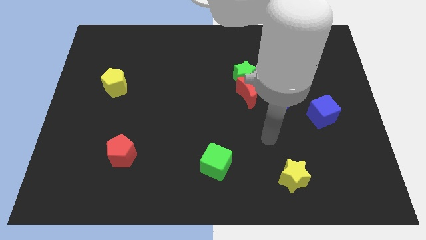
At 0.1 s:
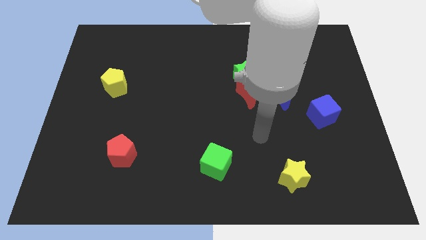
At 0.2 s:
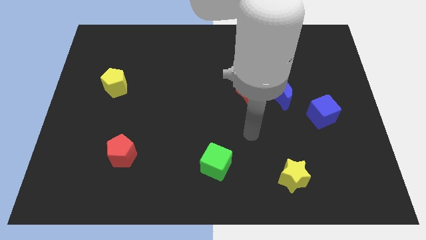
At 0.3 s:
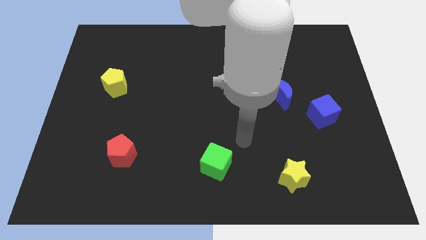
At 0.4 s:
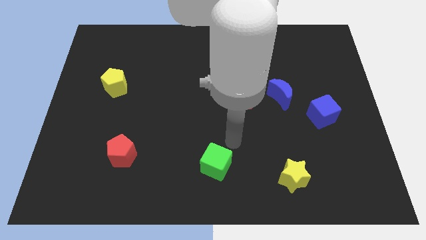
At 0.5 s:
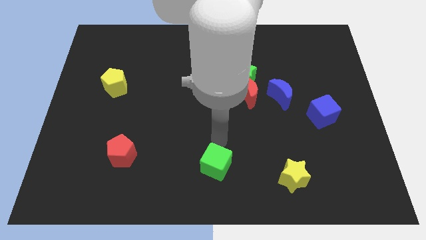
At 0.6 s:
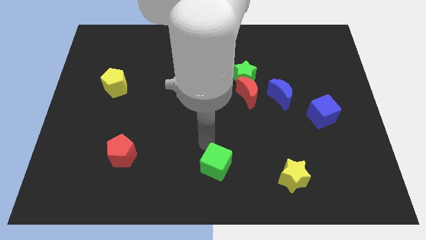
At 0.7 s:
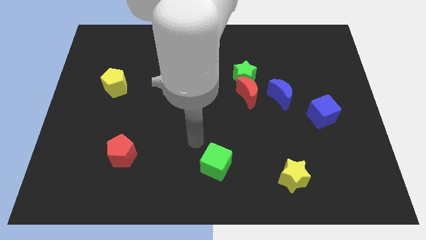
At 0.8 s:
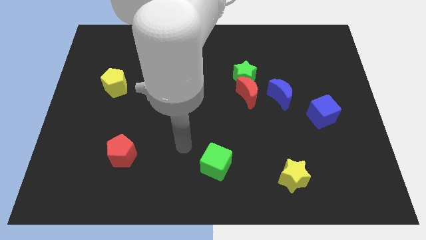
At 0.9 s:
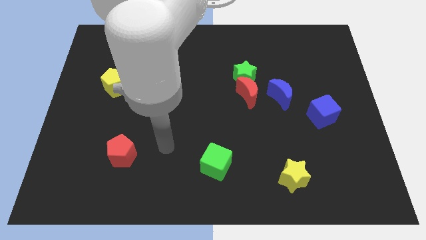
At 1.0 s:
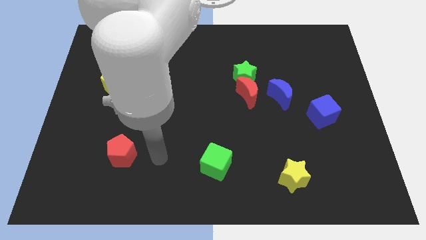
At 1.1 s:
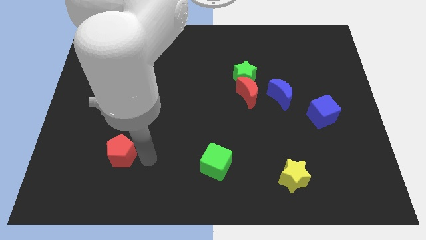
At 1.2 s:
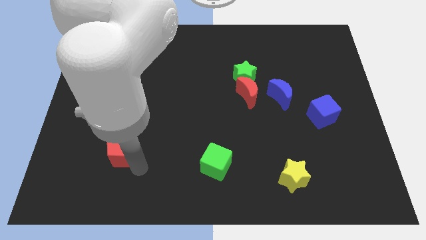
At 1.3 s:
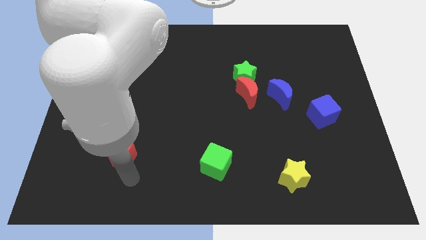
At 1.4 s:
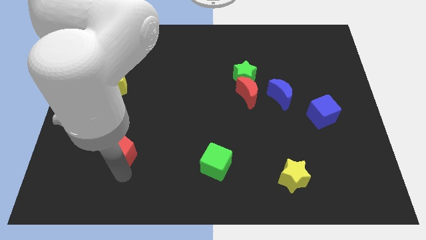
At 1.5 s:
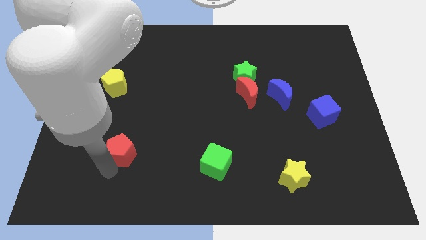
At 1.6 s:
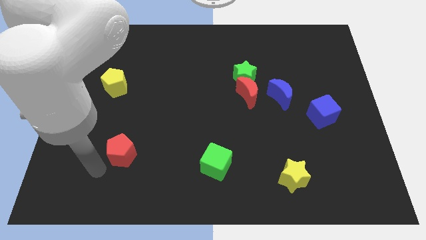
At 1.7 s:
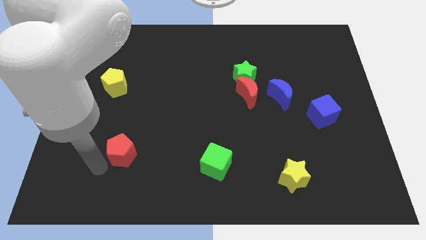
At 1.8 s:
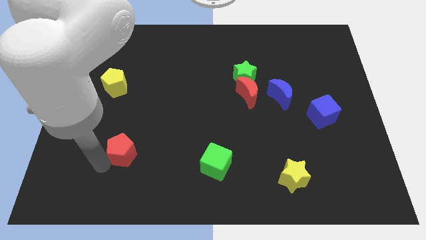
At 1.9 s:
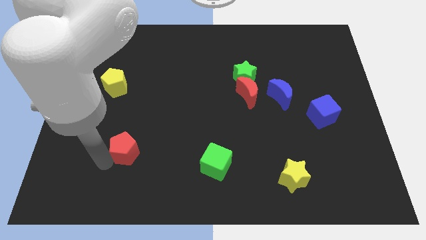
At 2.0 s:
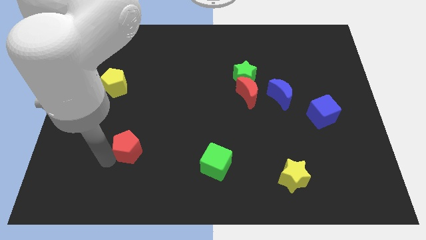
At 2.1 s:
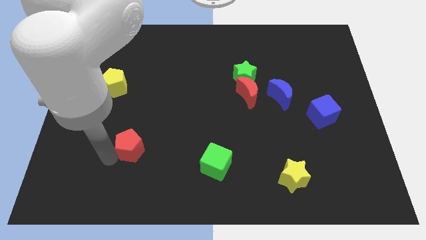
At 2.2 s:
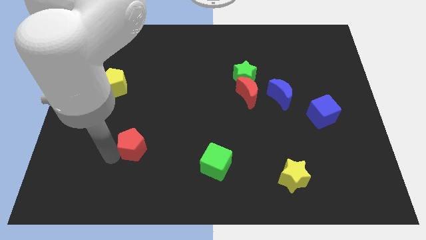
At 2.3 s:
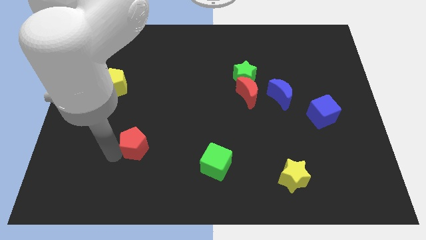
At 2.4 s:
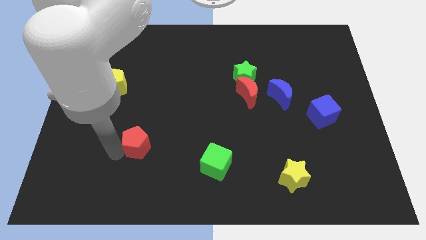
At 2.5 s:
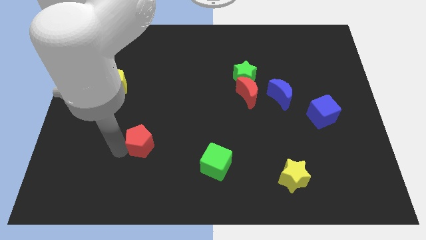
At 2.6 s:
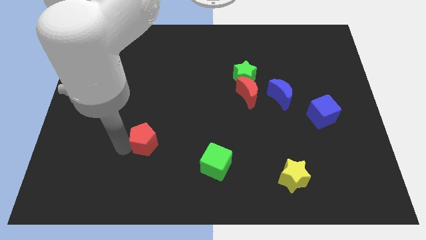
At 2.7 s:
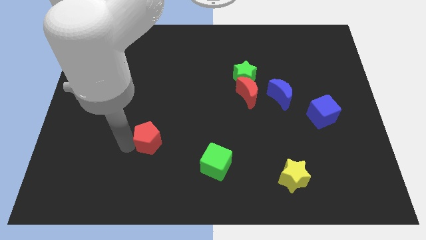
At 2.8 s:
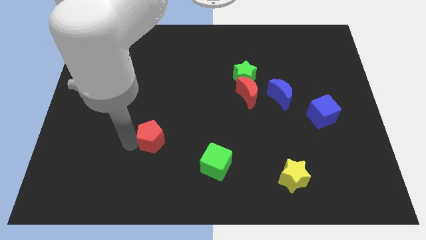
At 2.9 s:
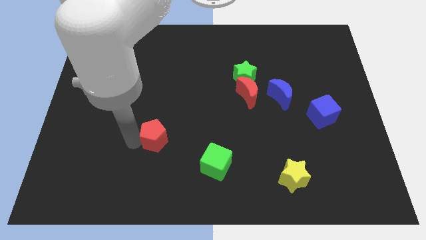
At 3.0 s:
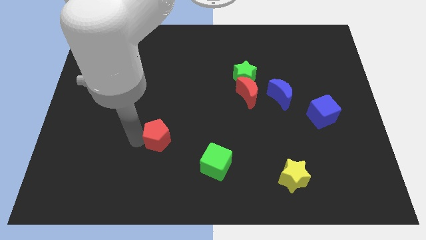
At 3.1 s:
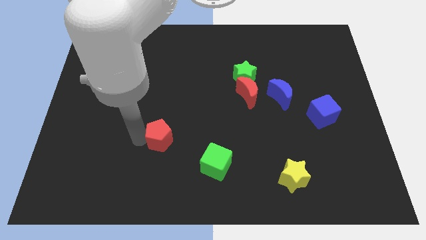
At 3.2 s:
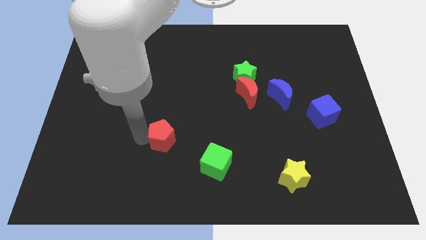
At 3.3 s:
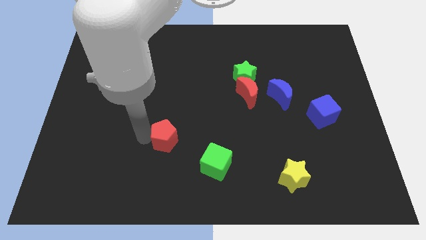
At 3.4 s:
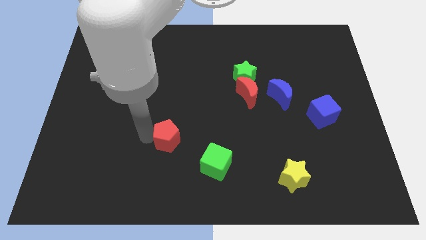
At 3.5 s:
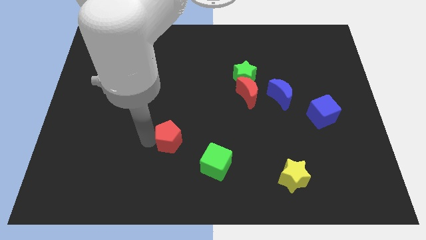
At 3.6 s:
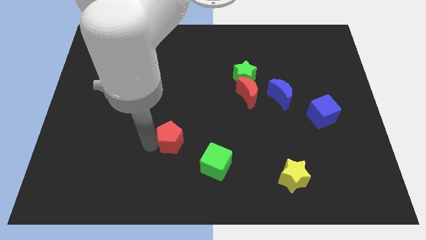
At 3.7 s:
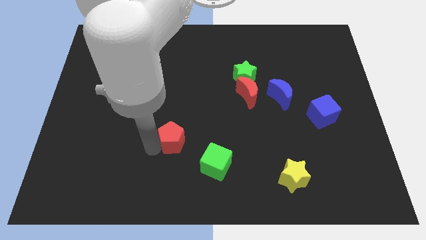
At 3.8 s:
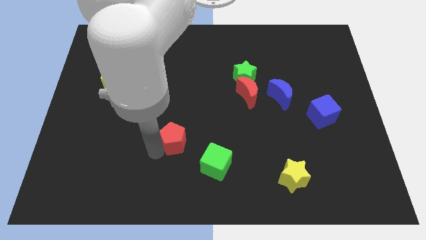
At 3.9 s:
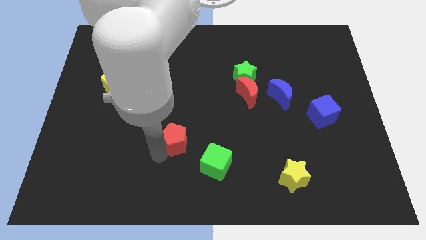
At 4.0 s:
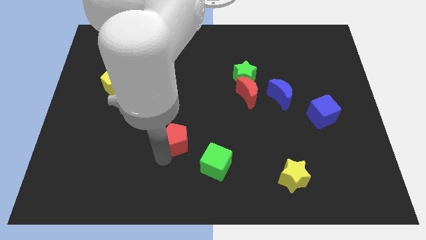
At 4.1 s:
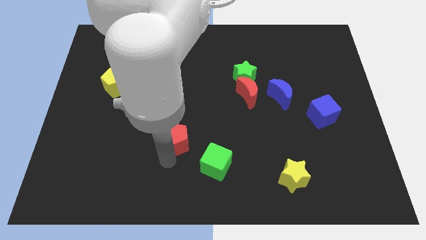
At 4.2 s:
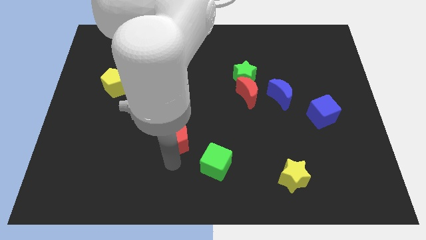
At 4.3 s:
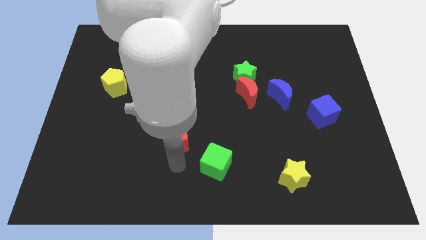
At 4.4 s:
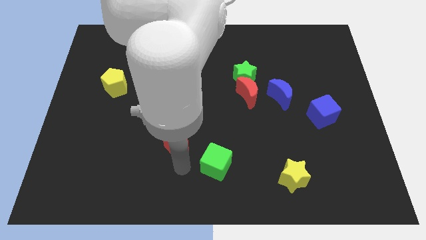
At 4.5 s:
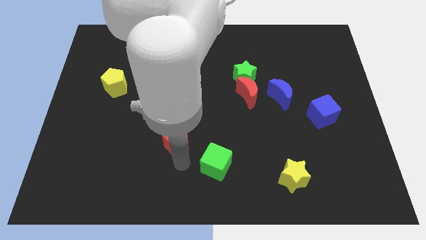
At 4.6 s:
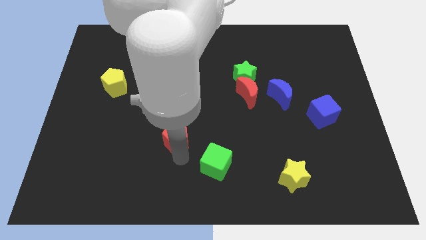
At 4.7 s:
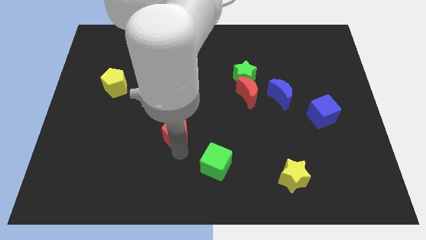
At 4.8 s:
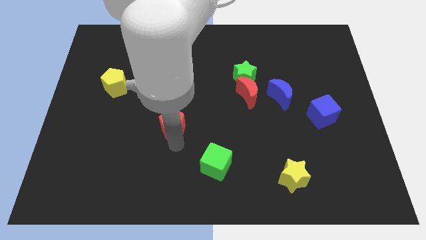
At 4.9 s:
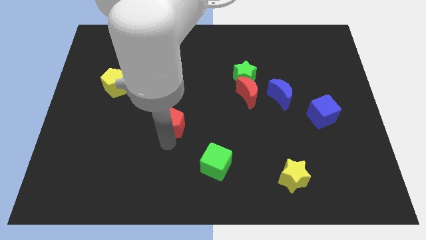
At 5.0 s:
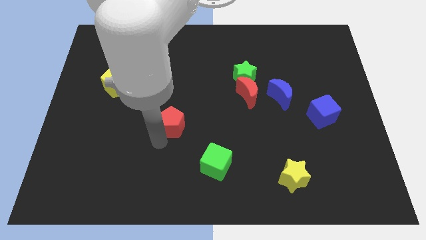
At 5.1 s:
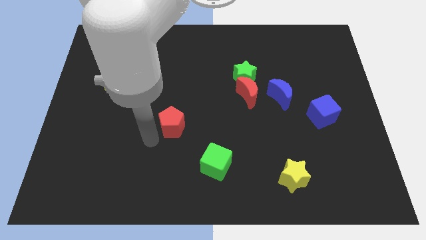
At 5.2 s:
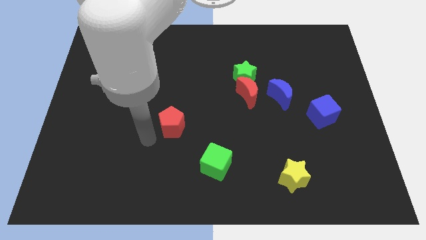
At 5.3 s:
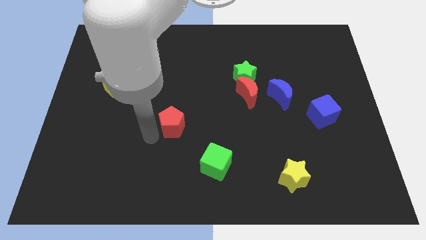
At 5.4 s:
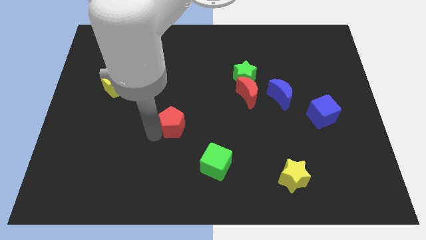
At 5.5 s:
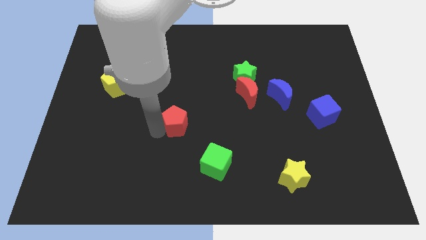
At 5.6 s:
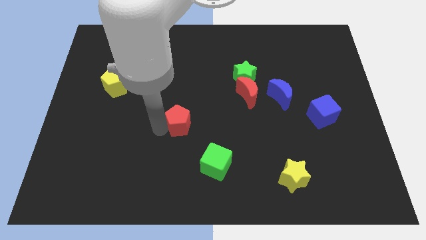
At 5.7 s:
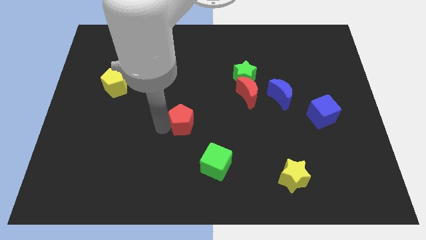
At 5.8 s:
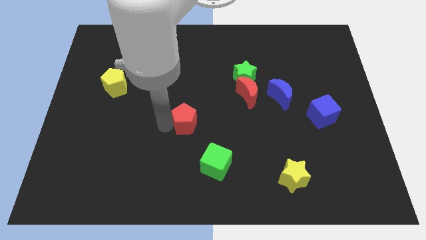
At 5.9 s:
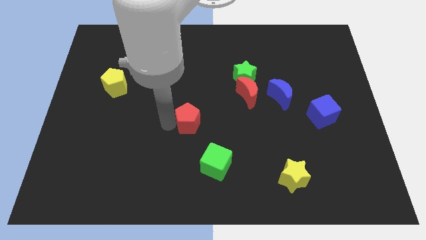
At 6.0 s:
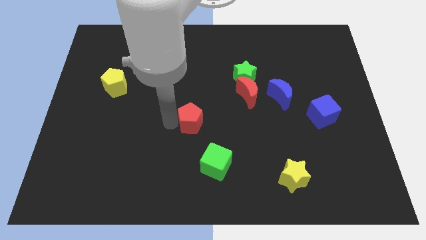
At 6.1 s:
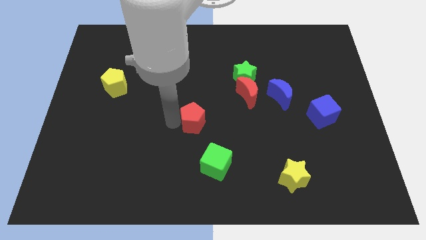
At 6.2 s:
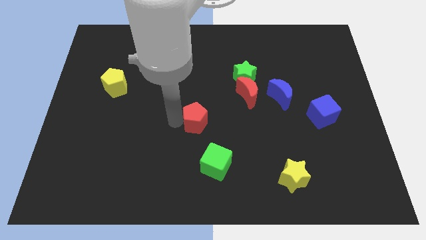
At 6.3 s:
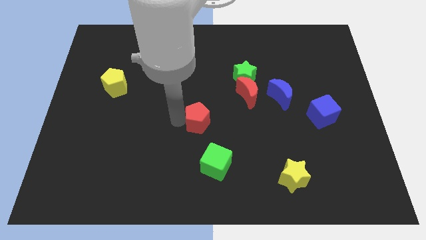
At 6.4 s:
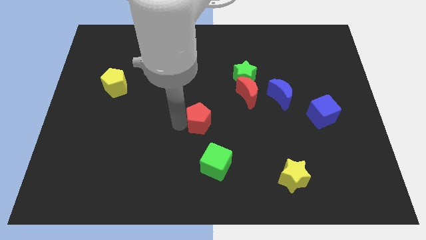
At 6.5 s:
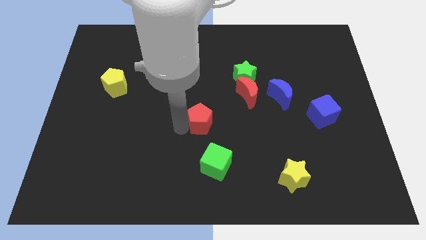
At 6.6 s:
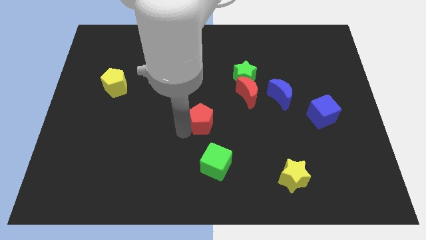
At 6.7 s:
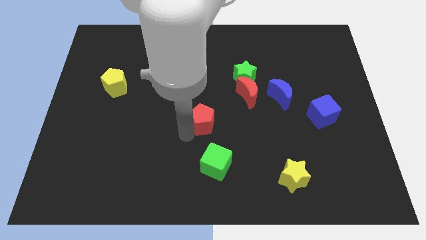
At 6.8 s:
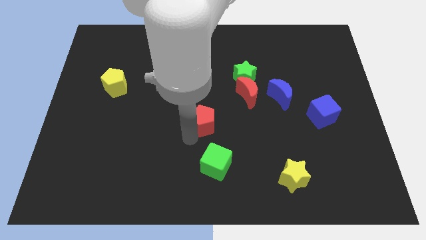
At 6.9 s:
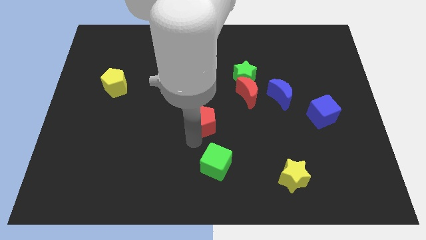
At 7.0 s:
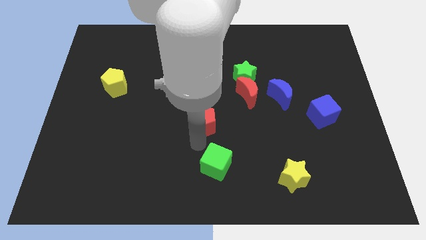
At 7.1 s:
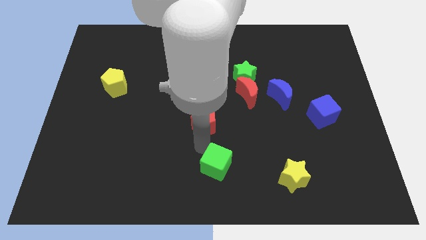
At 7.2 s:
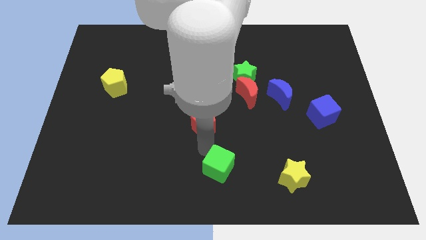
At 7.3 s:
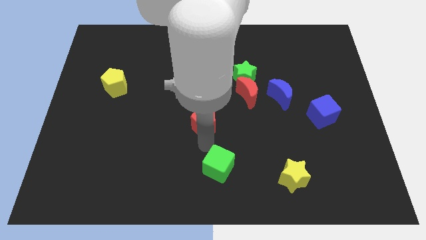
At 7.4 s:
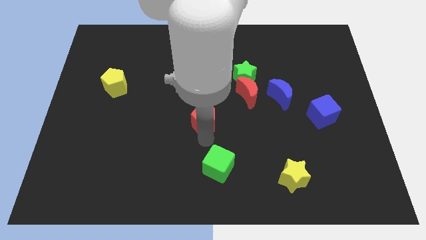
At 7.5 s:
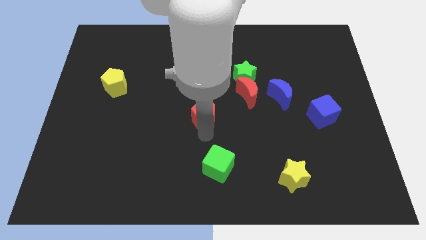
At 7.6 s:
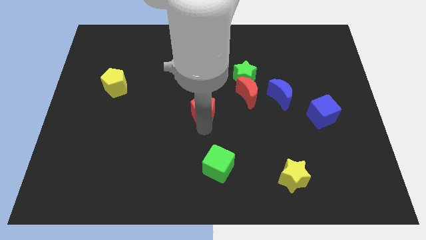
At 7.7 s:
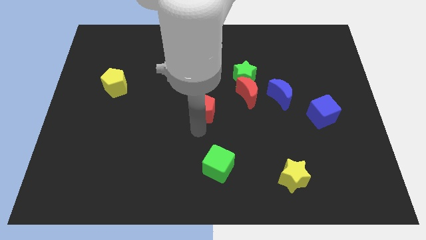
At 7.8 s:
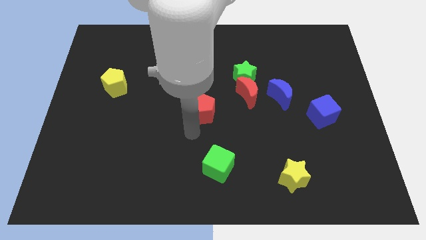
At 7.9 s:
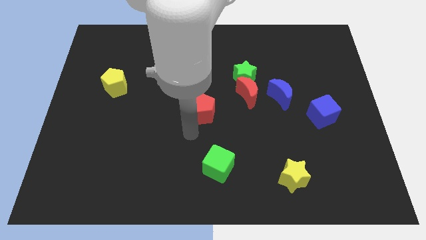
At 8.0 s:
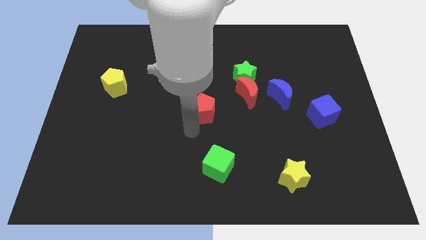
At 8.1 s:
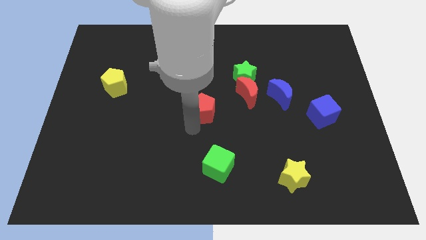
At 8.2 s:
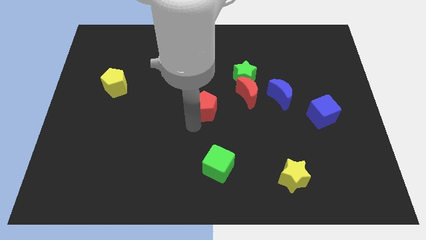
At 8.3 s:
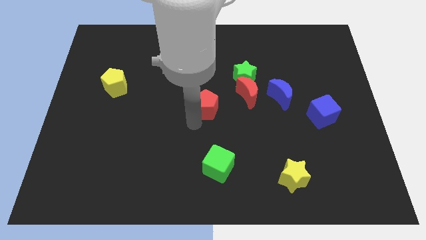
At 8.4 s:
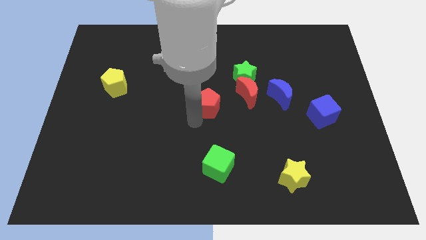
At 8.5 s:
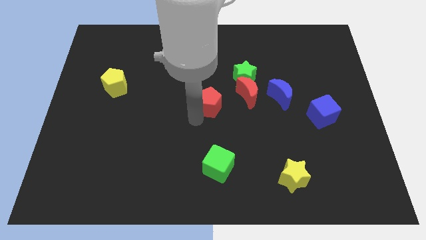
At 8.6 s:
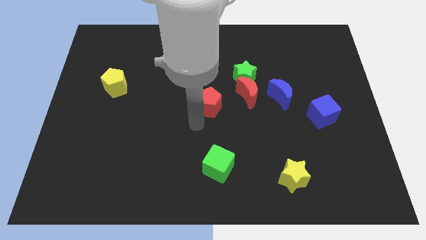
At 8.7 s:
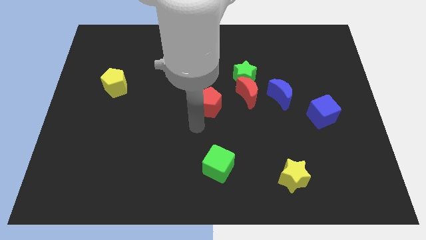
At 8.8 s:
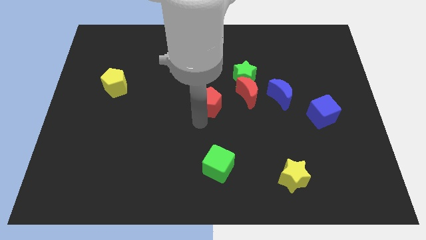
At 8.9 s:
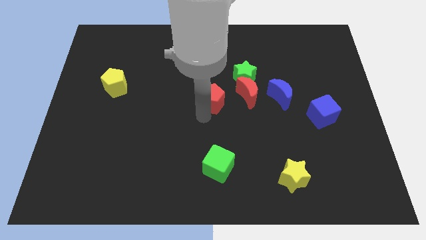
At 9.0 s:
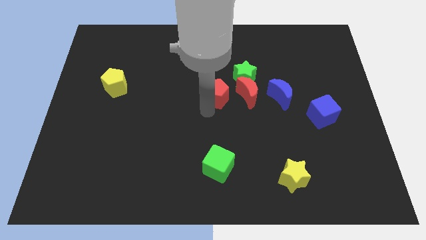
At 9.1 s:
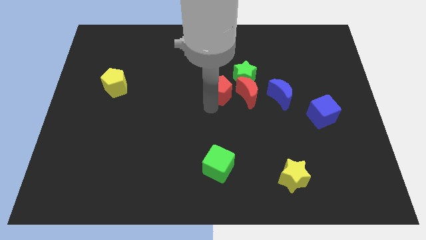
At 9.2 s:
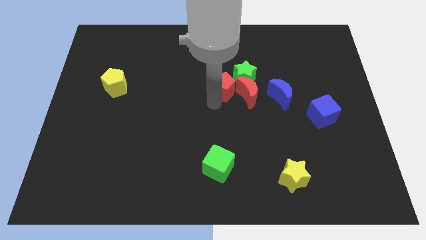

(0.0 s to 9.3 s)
push the red pentagon to the green star
